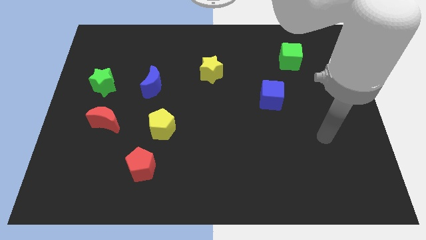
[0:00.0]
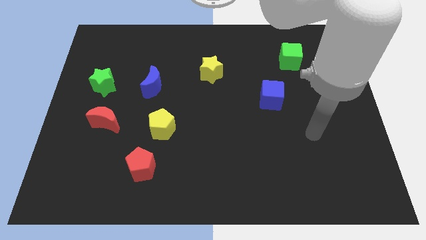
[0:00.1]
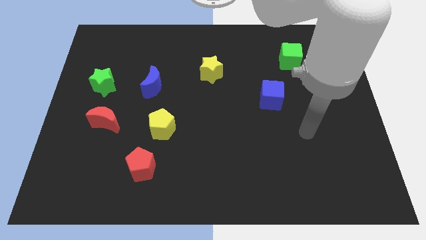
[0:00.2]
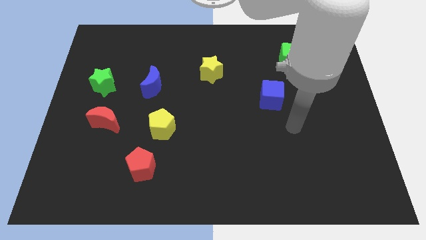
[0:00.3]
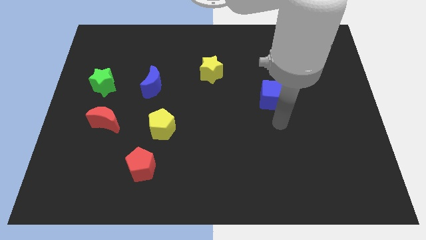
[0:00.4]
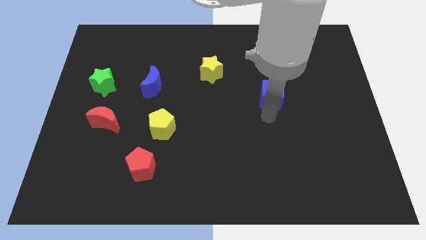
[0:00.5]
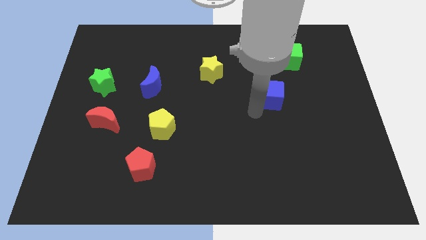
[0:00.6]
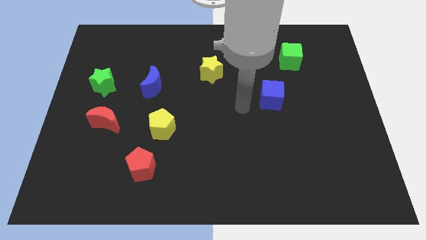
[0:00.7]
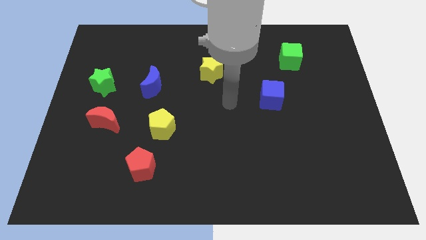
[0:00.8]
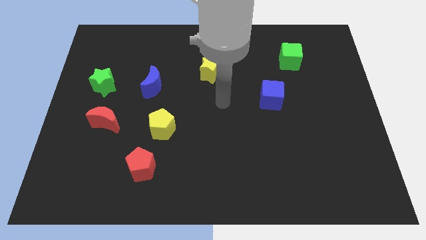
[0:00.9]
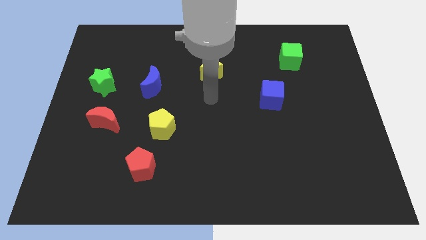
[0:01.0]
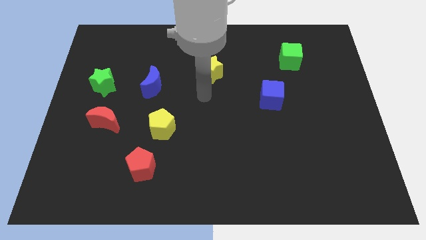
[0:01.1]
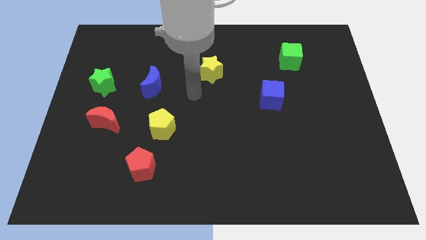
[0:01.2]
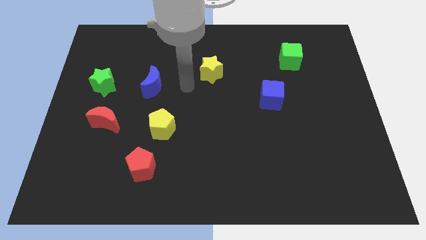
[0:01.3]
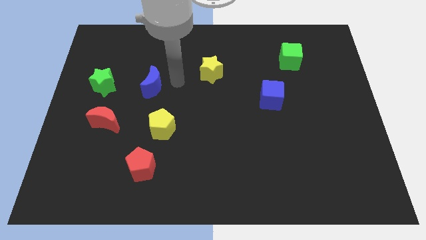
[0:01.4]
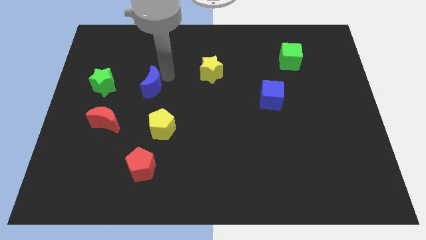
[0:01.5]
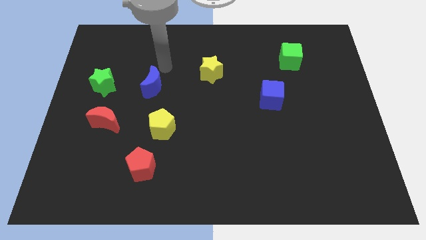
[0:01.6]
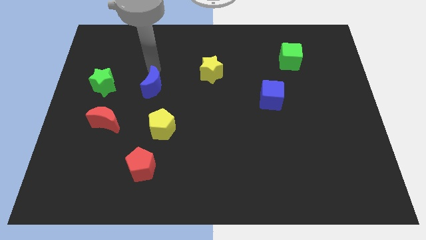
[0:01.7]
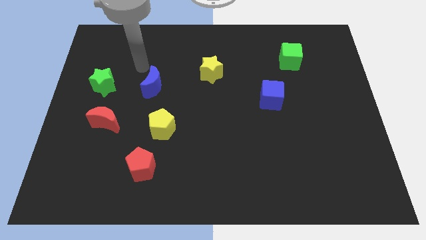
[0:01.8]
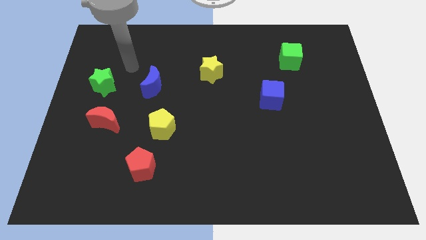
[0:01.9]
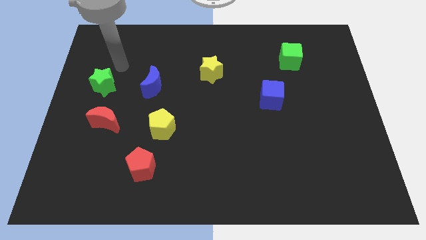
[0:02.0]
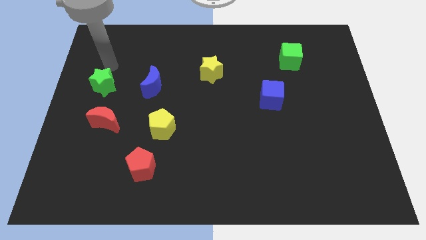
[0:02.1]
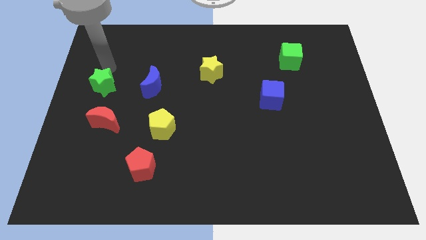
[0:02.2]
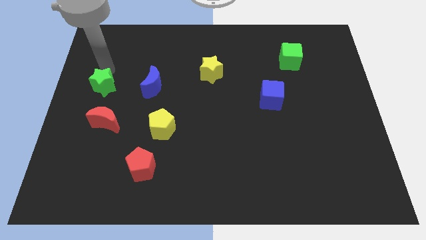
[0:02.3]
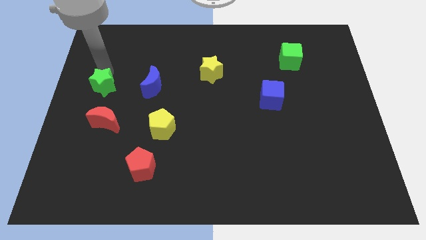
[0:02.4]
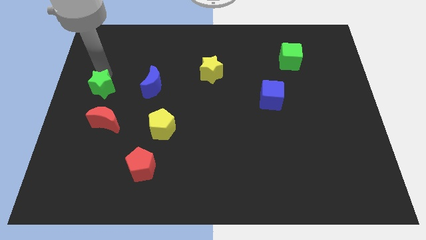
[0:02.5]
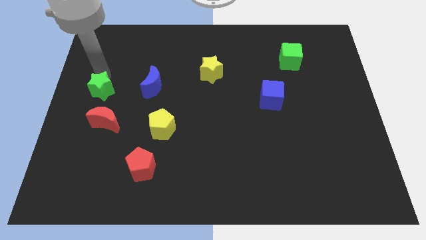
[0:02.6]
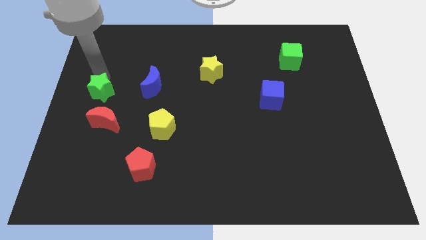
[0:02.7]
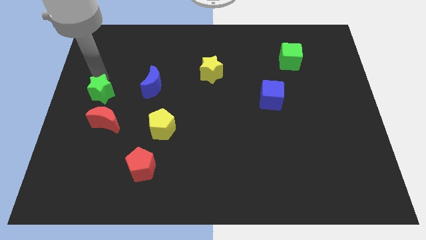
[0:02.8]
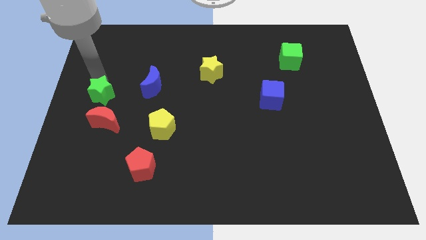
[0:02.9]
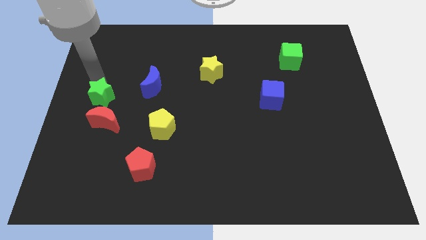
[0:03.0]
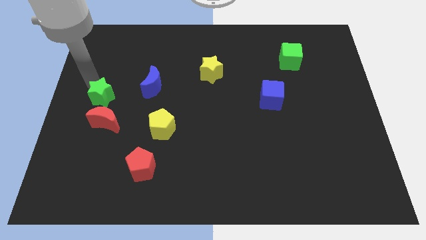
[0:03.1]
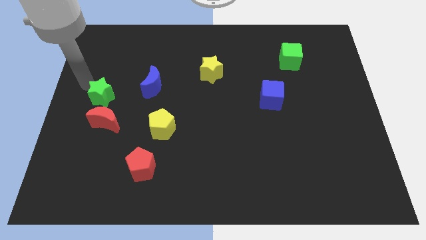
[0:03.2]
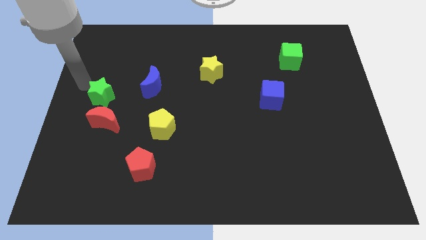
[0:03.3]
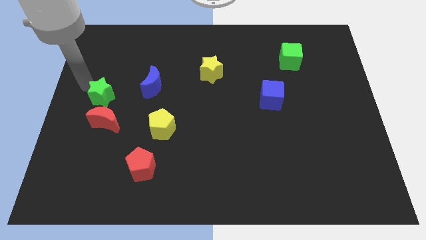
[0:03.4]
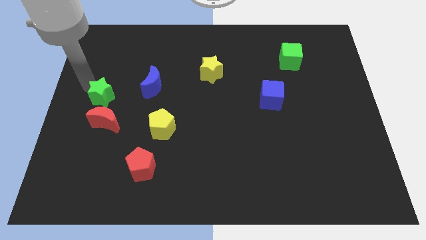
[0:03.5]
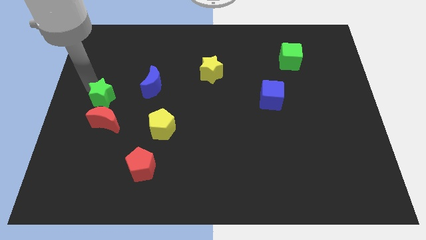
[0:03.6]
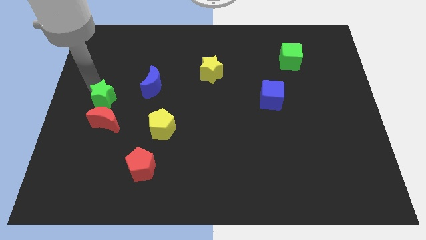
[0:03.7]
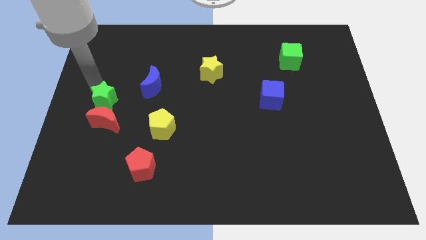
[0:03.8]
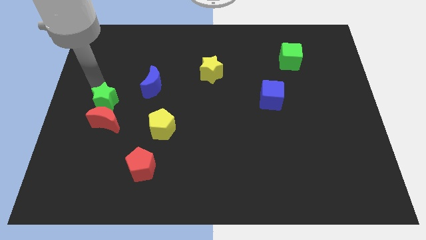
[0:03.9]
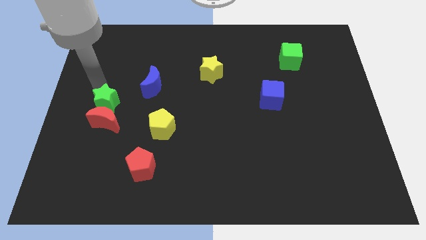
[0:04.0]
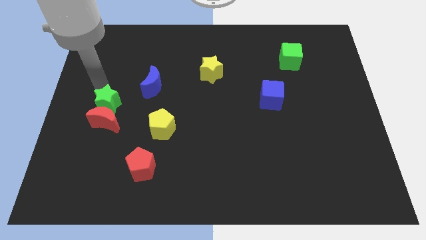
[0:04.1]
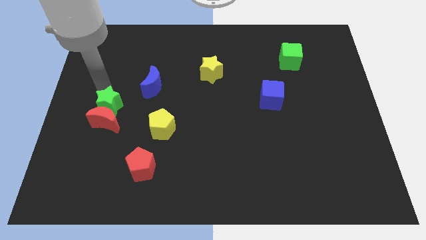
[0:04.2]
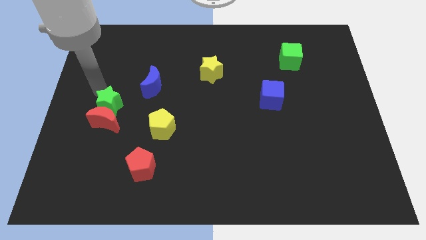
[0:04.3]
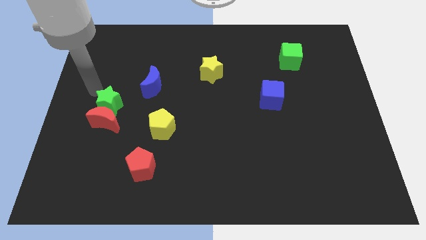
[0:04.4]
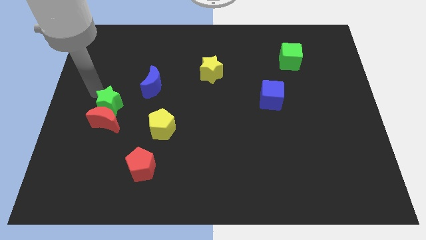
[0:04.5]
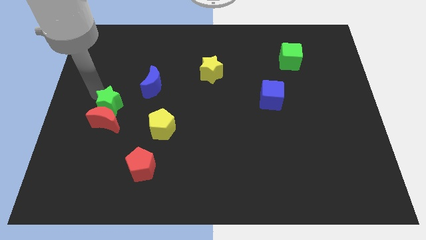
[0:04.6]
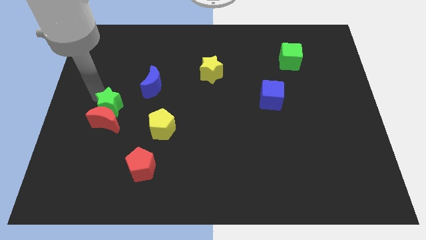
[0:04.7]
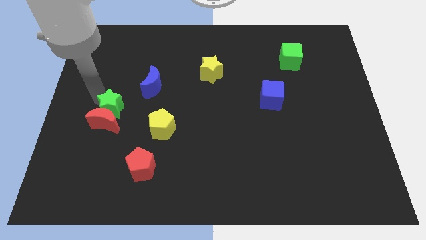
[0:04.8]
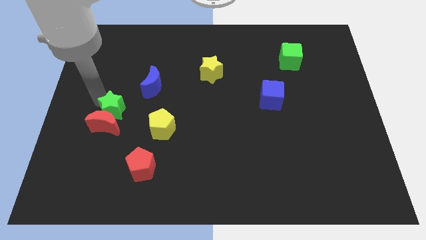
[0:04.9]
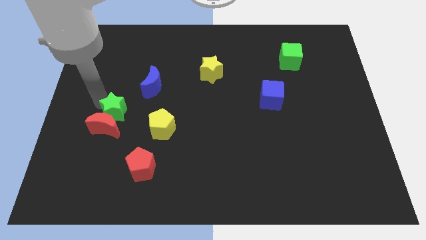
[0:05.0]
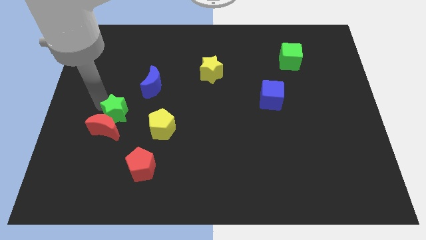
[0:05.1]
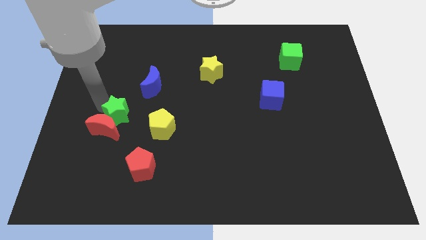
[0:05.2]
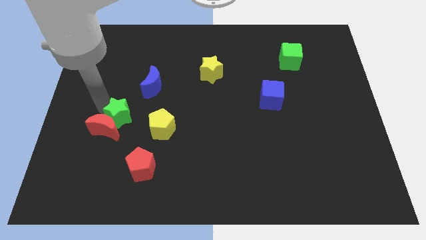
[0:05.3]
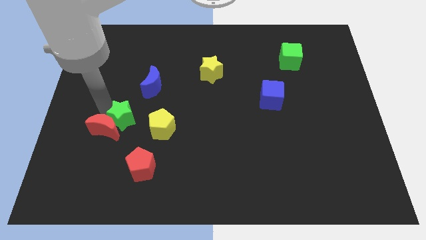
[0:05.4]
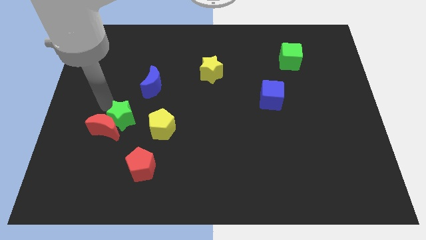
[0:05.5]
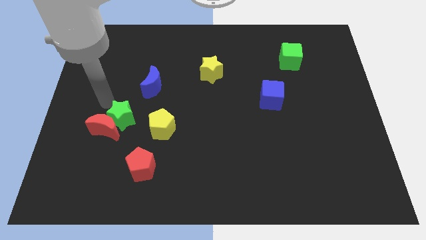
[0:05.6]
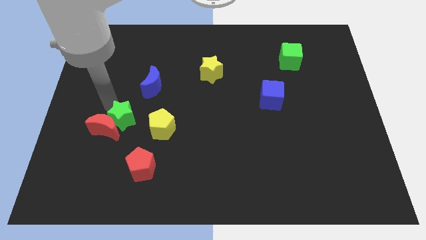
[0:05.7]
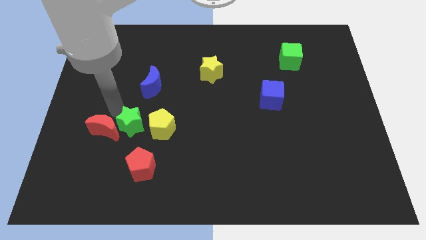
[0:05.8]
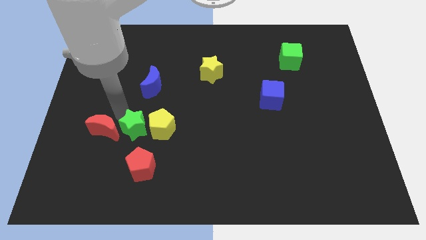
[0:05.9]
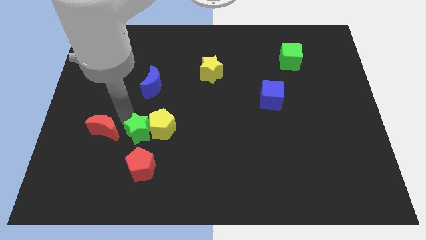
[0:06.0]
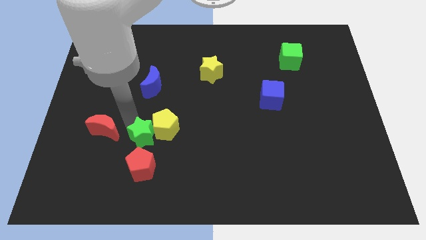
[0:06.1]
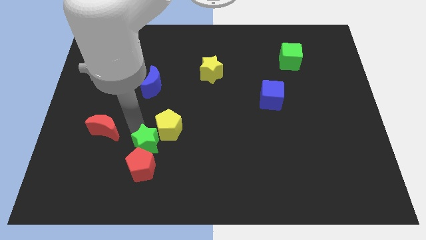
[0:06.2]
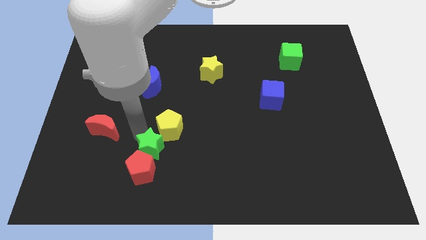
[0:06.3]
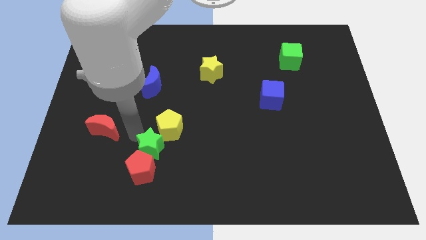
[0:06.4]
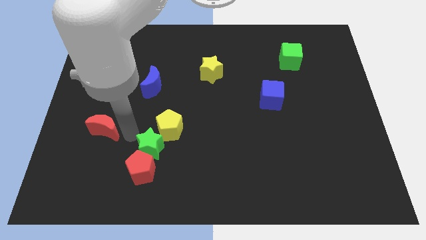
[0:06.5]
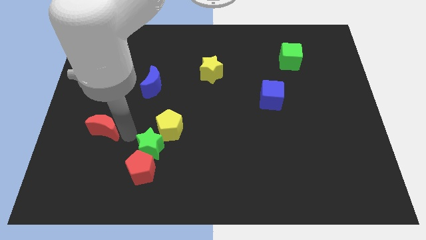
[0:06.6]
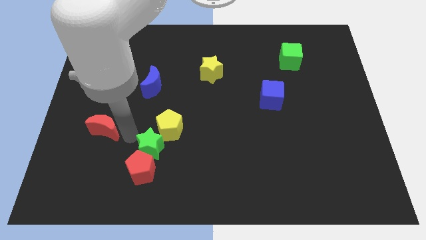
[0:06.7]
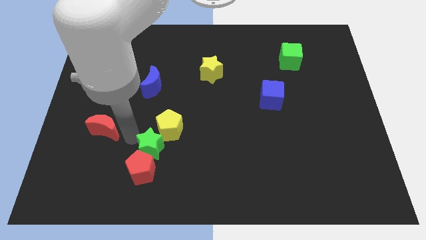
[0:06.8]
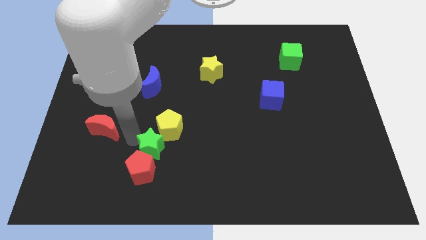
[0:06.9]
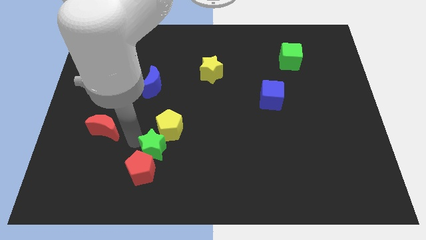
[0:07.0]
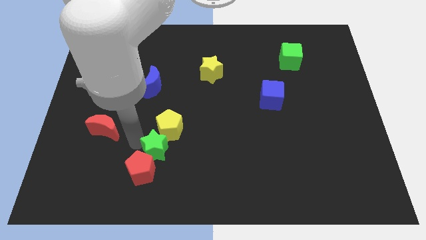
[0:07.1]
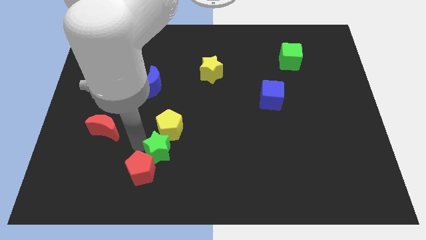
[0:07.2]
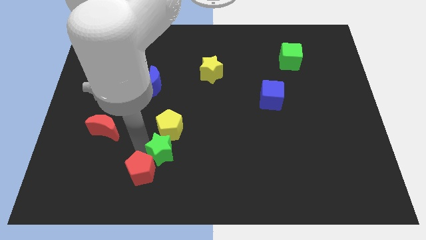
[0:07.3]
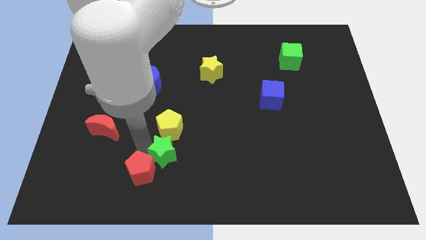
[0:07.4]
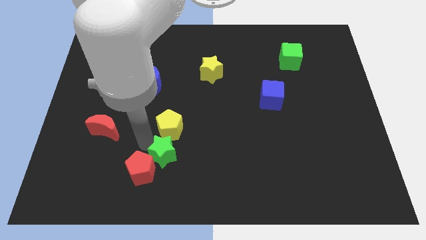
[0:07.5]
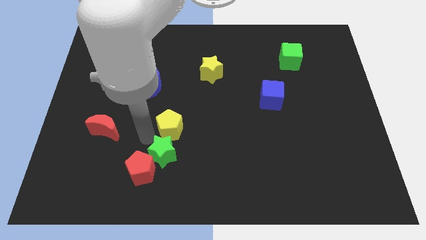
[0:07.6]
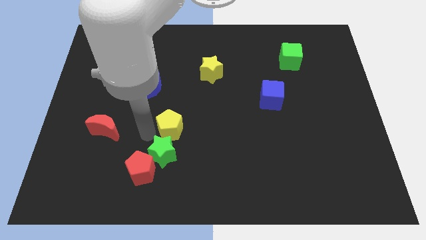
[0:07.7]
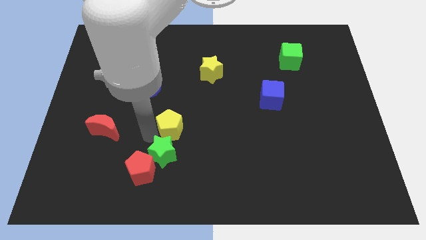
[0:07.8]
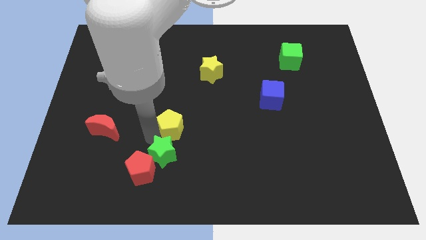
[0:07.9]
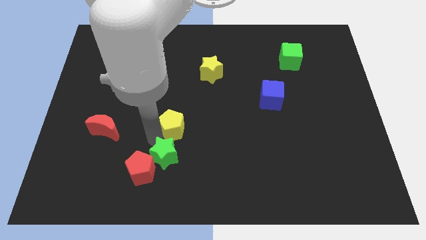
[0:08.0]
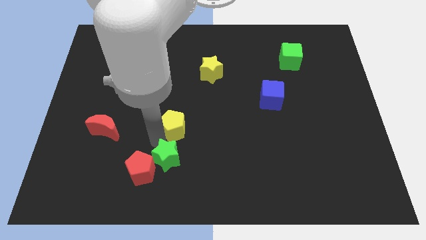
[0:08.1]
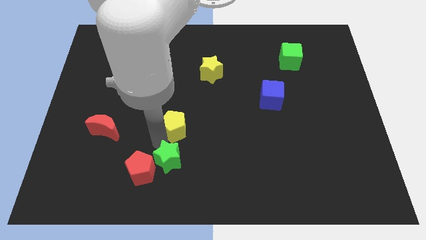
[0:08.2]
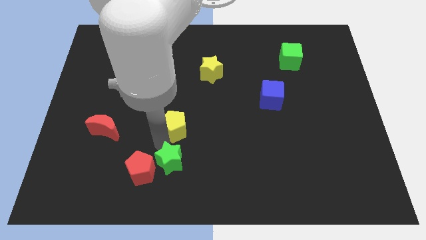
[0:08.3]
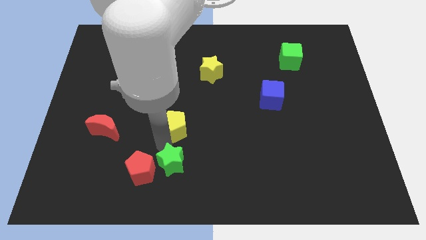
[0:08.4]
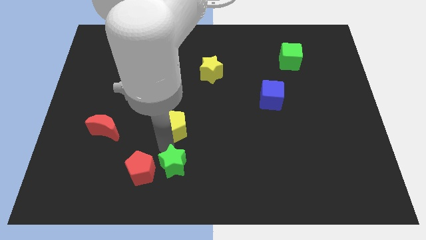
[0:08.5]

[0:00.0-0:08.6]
slide the green star to the bottom side
